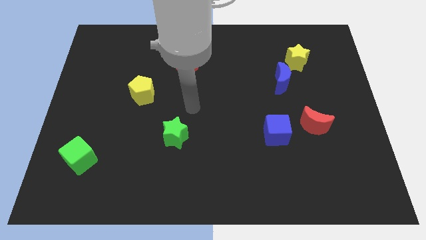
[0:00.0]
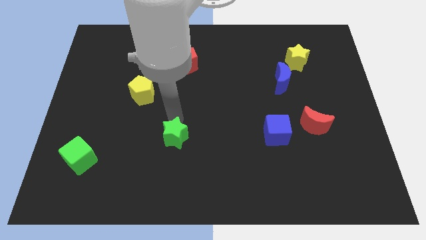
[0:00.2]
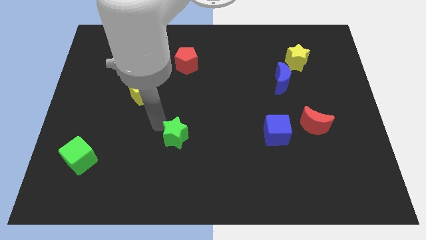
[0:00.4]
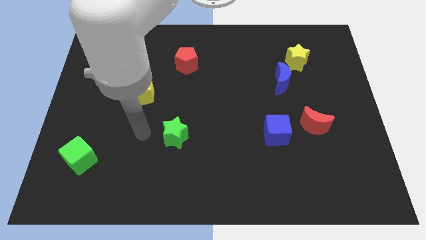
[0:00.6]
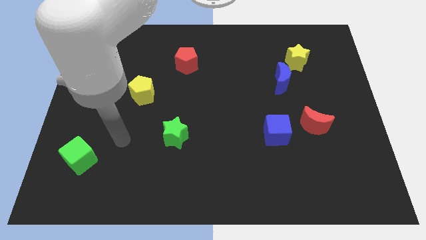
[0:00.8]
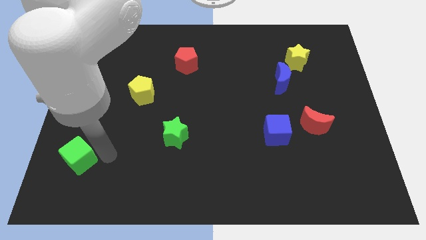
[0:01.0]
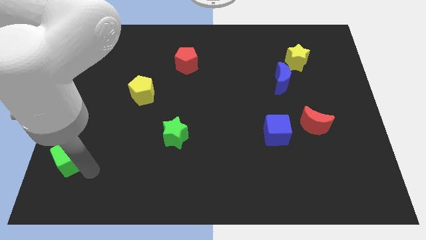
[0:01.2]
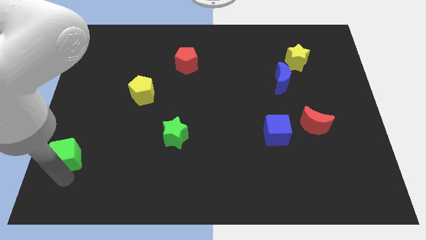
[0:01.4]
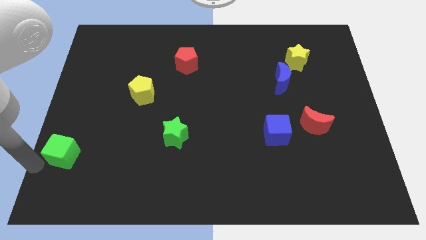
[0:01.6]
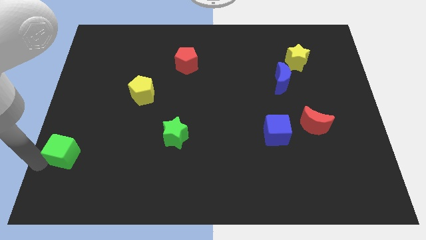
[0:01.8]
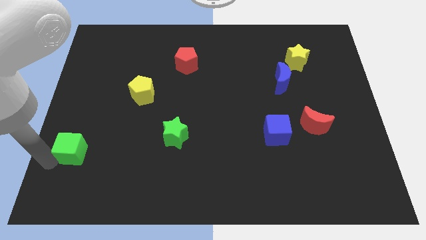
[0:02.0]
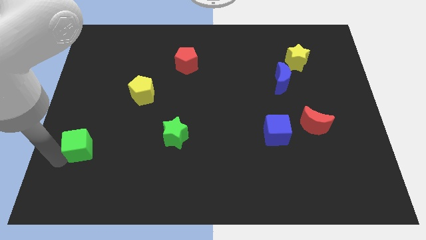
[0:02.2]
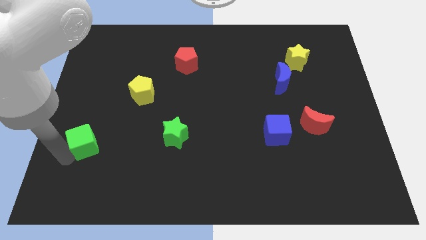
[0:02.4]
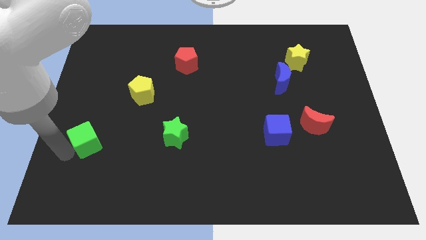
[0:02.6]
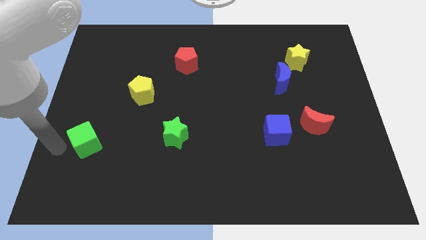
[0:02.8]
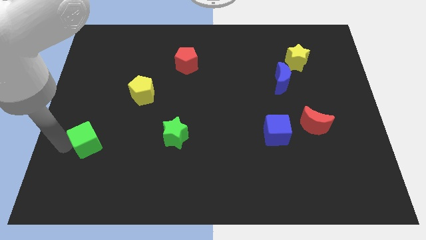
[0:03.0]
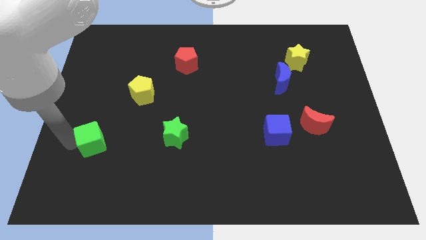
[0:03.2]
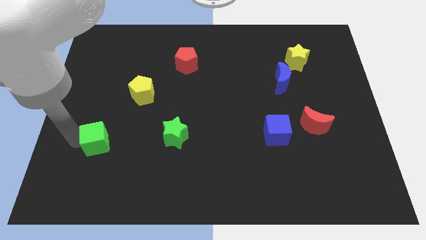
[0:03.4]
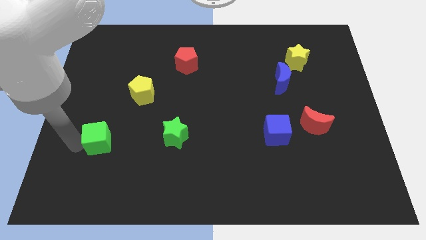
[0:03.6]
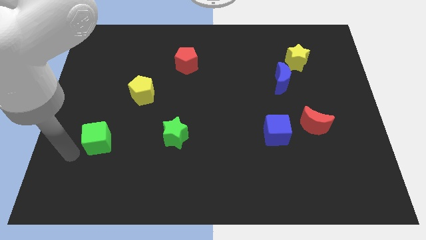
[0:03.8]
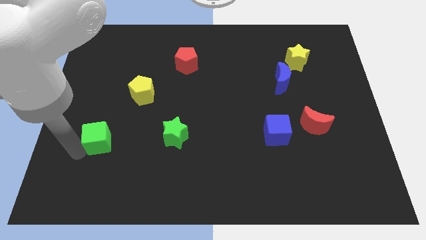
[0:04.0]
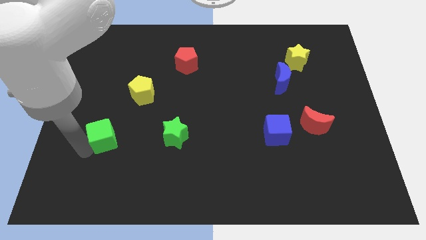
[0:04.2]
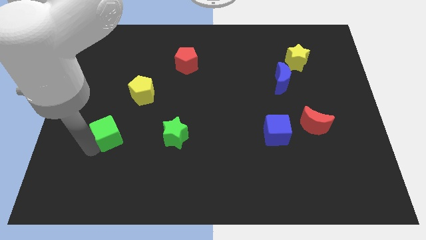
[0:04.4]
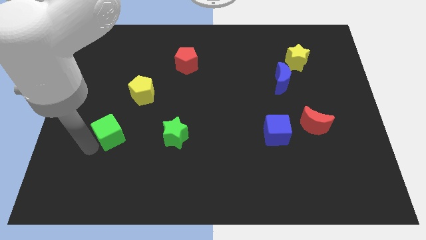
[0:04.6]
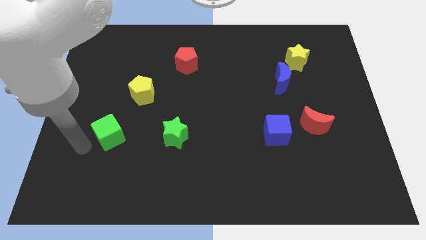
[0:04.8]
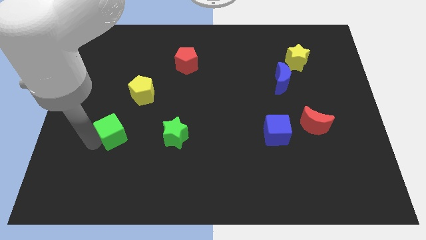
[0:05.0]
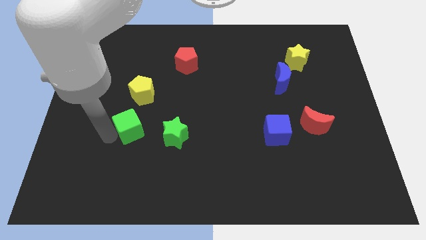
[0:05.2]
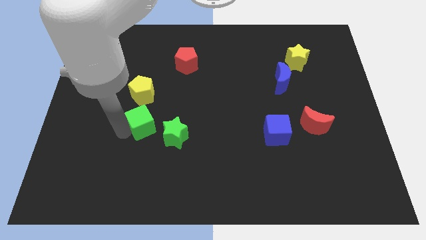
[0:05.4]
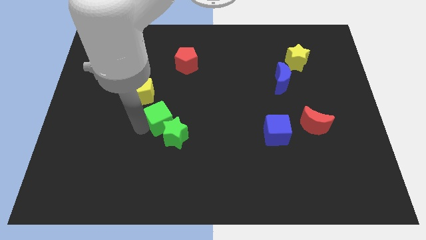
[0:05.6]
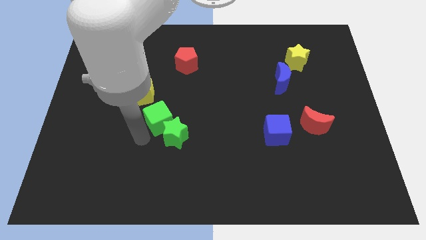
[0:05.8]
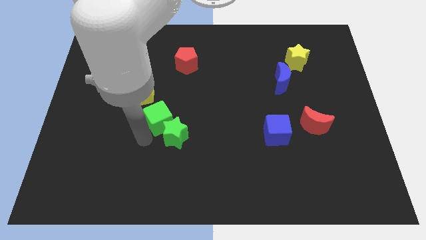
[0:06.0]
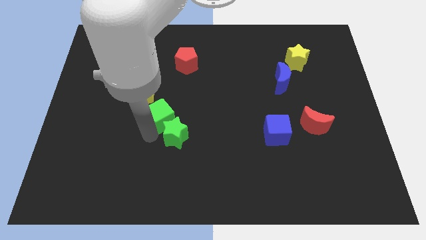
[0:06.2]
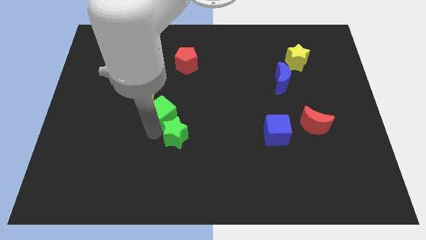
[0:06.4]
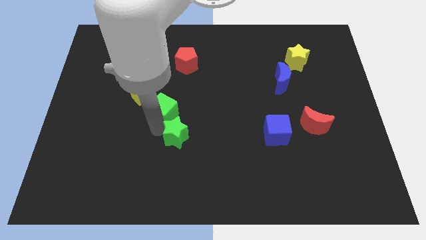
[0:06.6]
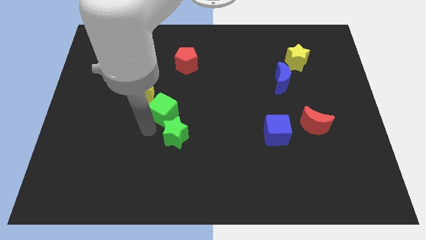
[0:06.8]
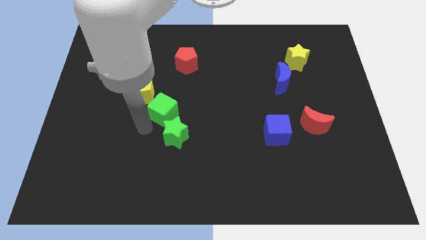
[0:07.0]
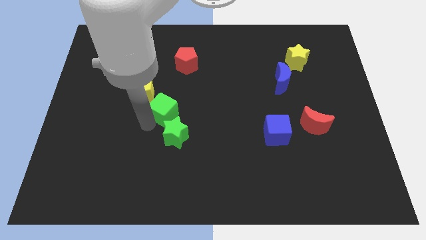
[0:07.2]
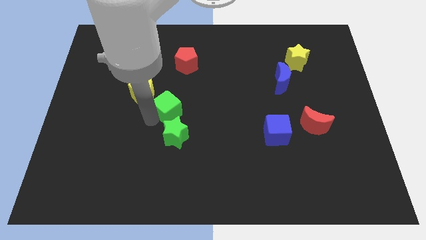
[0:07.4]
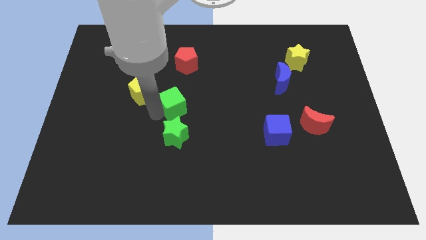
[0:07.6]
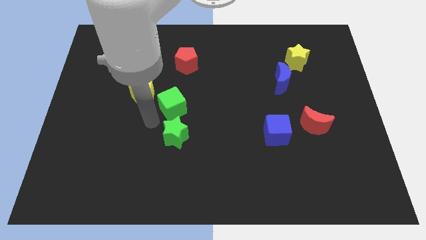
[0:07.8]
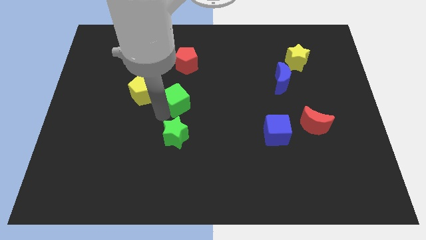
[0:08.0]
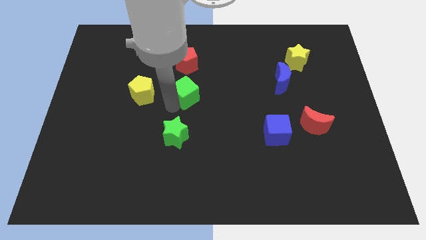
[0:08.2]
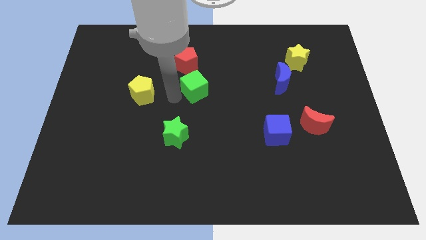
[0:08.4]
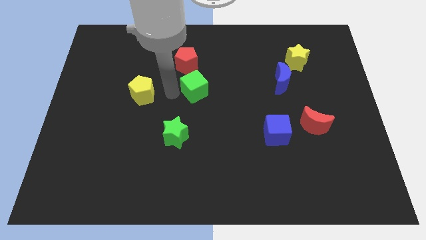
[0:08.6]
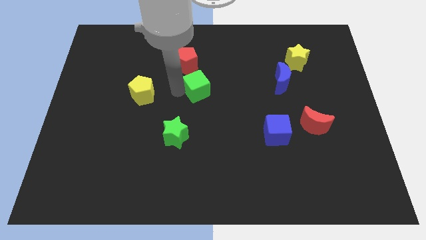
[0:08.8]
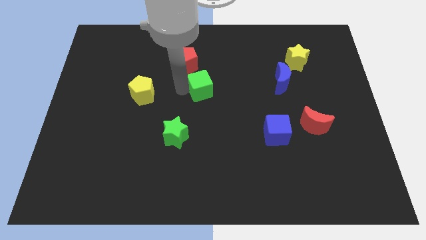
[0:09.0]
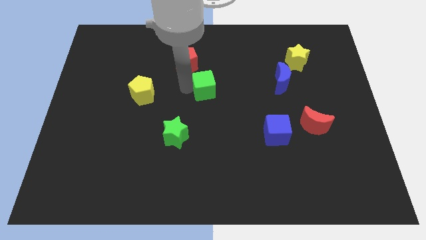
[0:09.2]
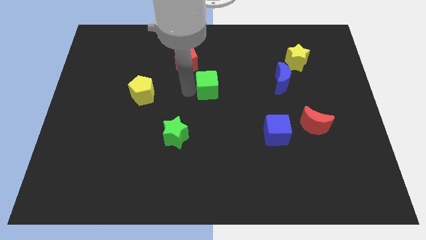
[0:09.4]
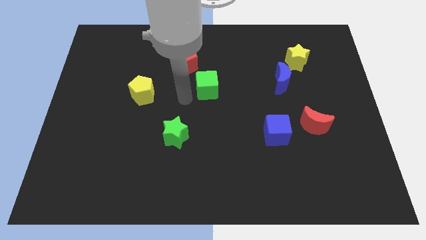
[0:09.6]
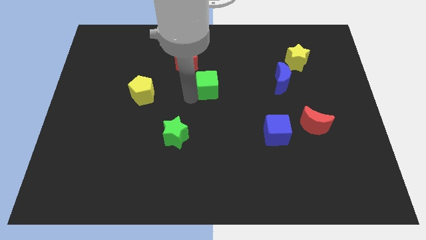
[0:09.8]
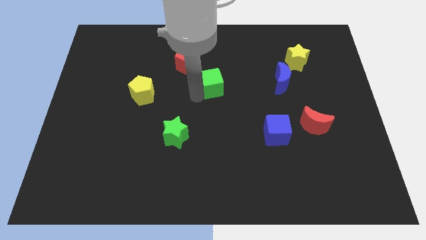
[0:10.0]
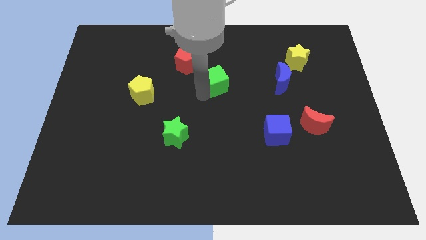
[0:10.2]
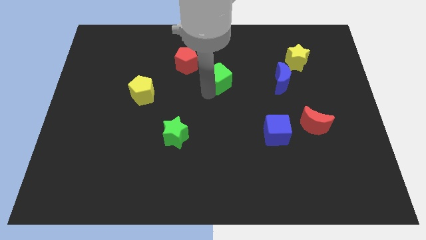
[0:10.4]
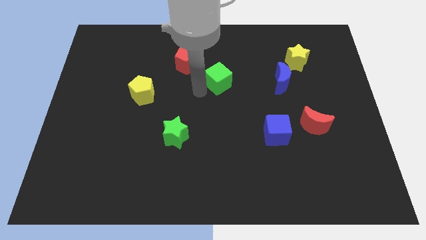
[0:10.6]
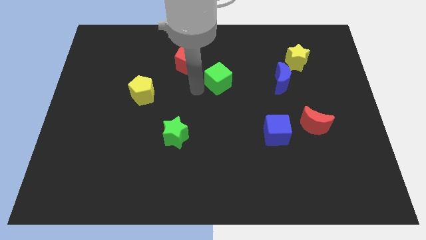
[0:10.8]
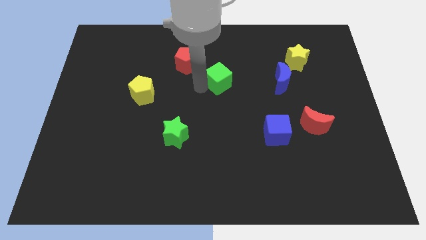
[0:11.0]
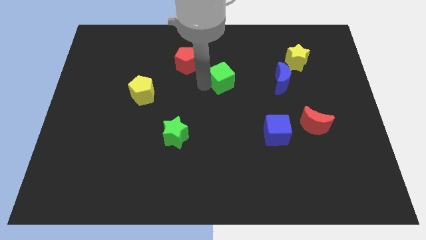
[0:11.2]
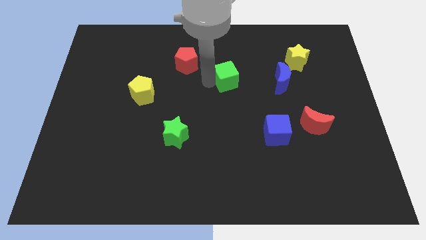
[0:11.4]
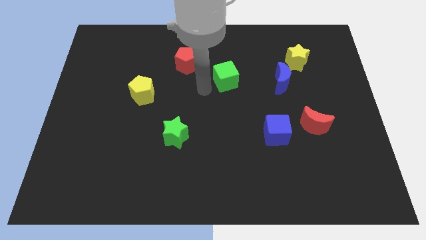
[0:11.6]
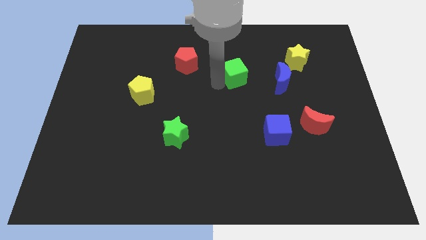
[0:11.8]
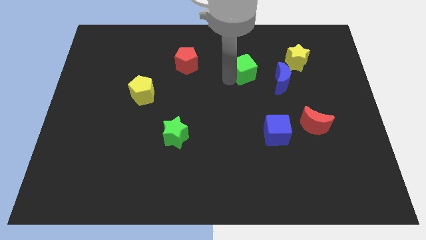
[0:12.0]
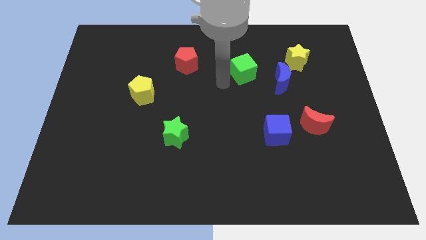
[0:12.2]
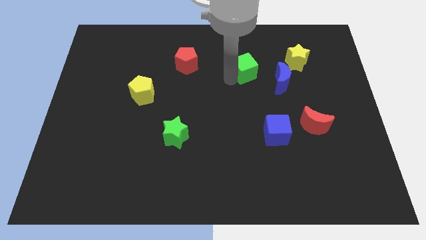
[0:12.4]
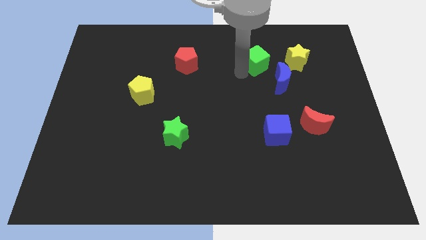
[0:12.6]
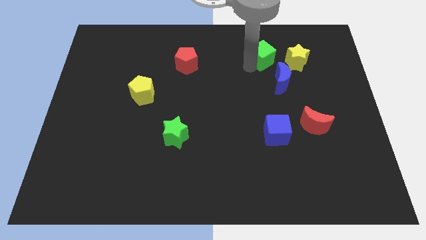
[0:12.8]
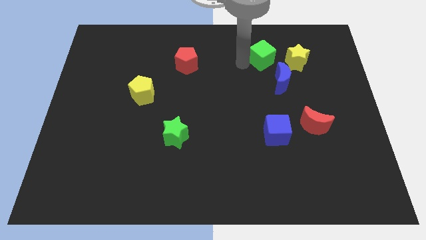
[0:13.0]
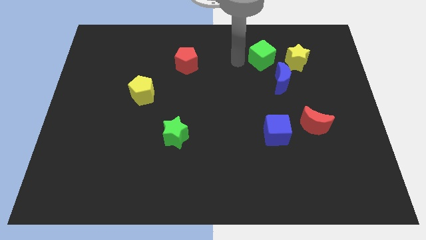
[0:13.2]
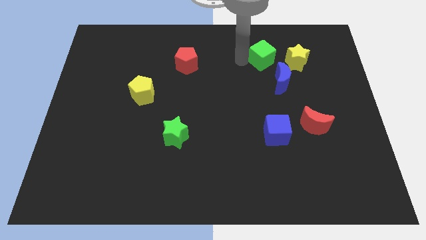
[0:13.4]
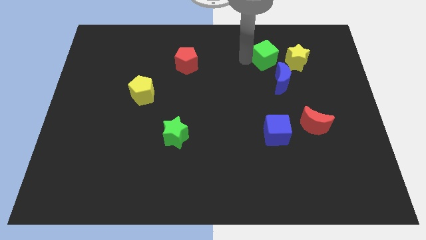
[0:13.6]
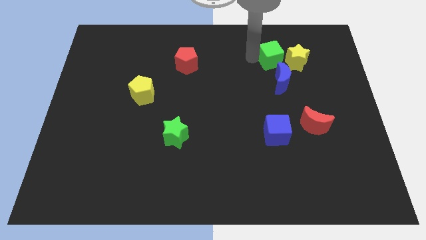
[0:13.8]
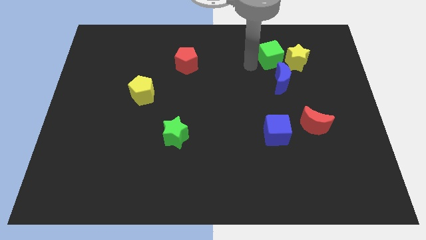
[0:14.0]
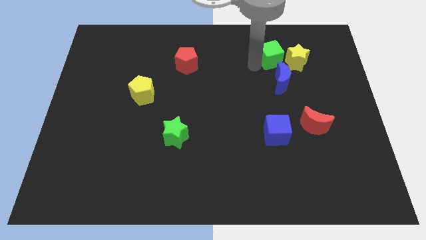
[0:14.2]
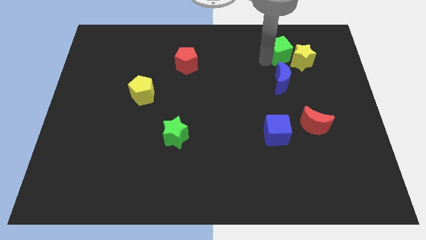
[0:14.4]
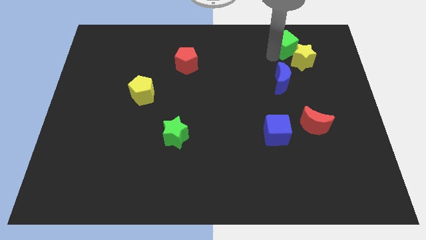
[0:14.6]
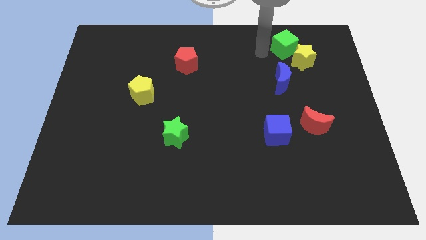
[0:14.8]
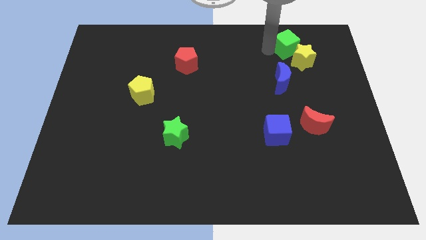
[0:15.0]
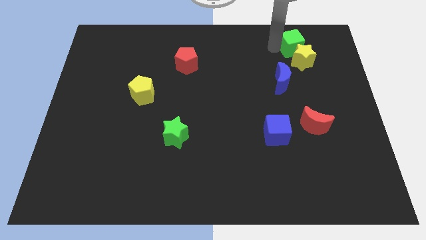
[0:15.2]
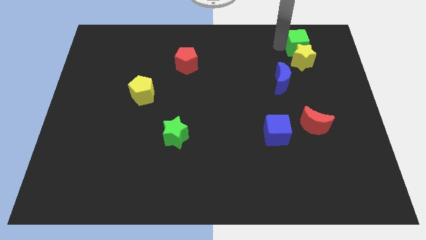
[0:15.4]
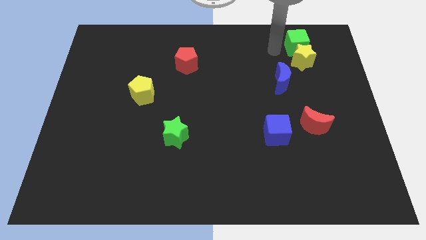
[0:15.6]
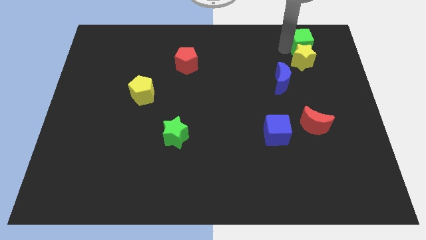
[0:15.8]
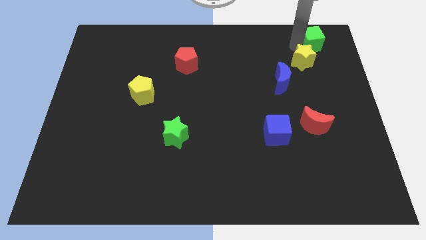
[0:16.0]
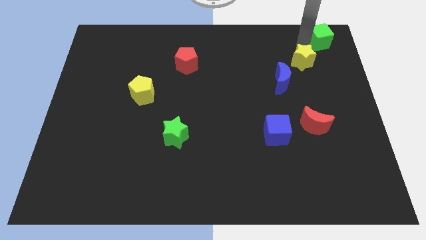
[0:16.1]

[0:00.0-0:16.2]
push the green cube to the top right corner
